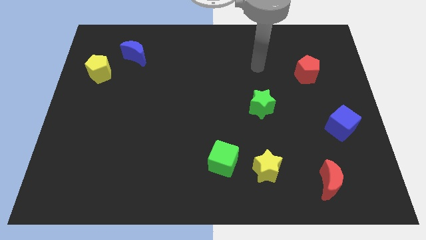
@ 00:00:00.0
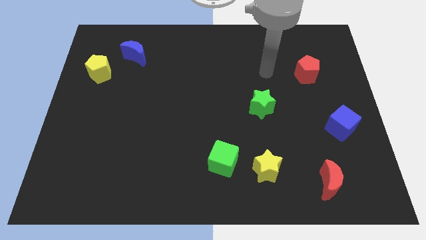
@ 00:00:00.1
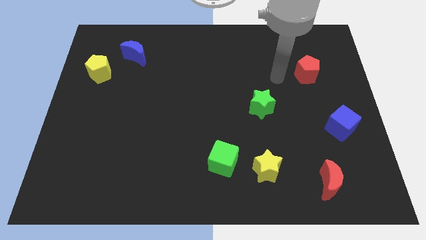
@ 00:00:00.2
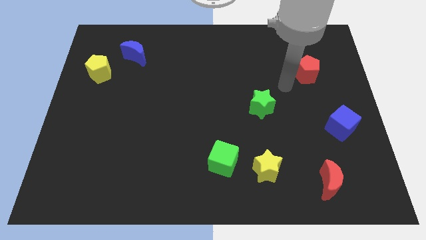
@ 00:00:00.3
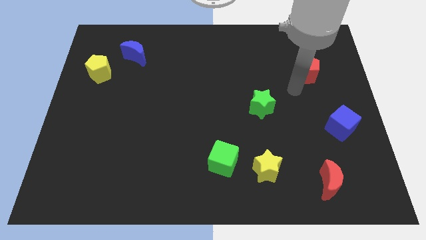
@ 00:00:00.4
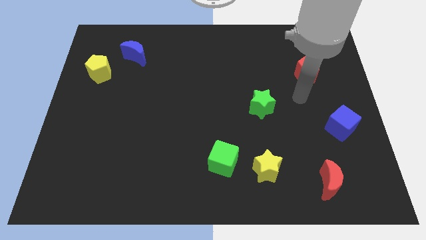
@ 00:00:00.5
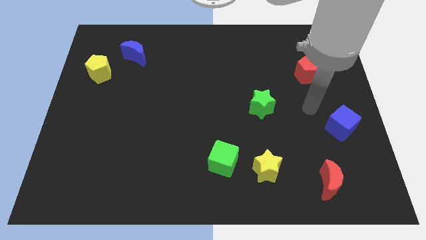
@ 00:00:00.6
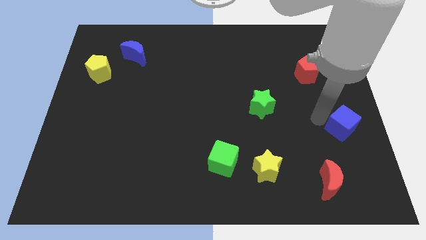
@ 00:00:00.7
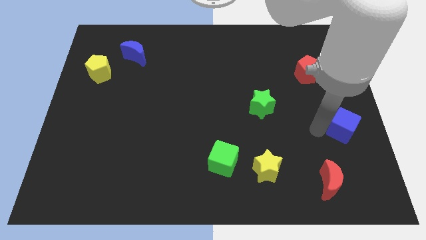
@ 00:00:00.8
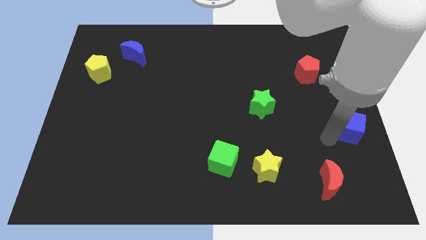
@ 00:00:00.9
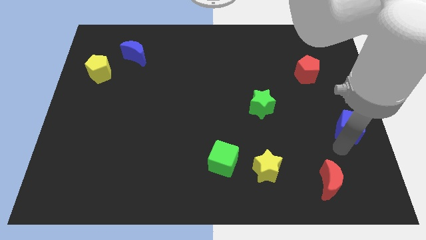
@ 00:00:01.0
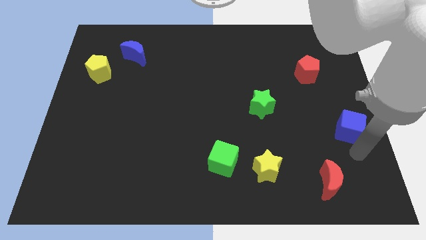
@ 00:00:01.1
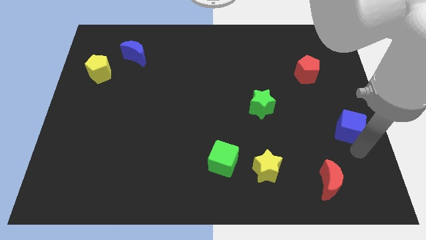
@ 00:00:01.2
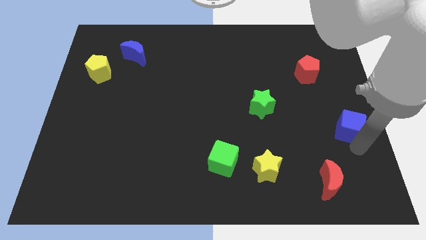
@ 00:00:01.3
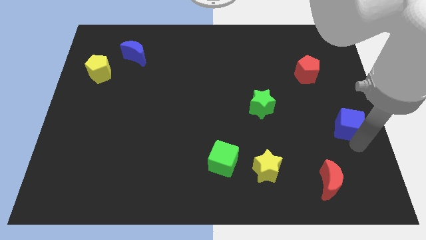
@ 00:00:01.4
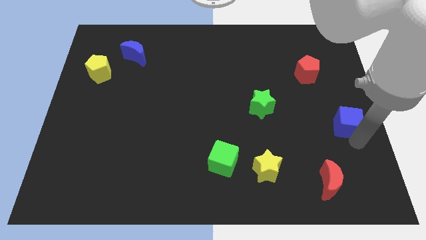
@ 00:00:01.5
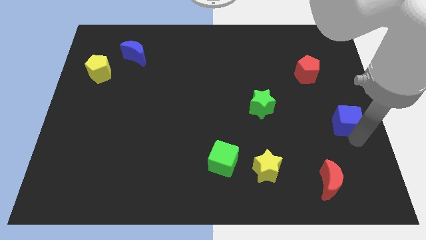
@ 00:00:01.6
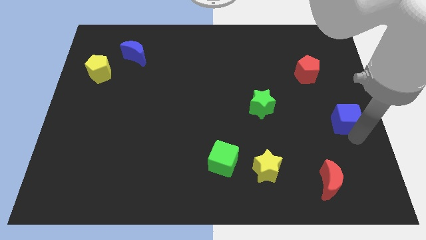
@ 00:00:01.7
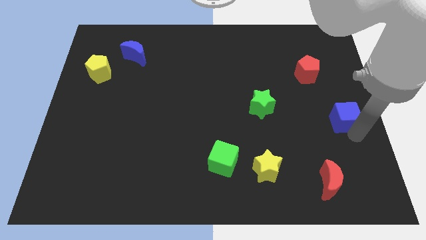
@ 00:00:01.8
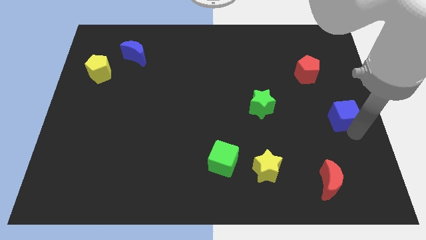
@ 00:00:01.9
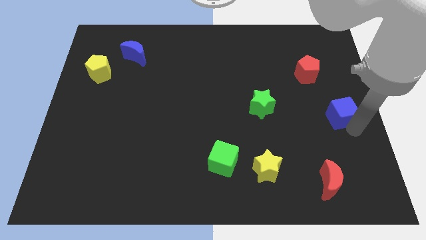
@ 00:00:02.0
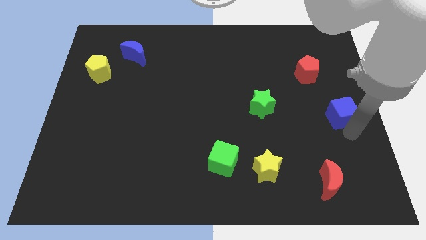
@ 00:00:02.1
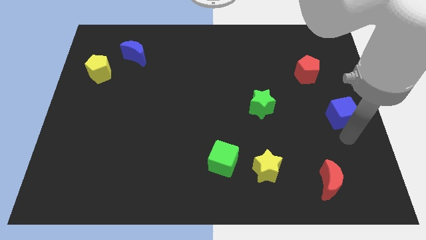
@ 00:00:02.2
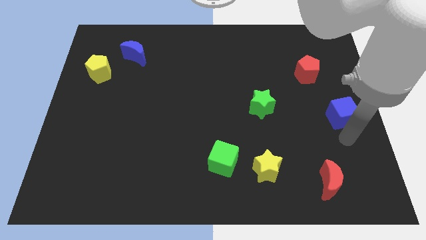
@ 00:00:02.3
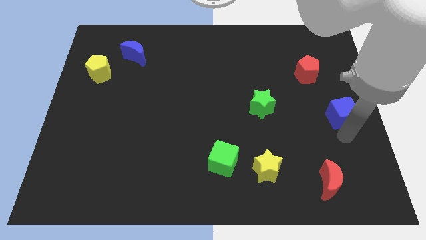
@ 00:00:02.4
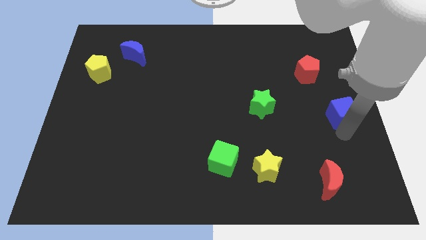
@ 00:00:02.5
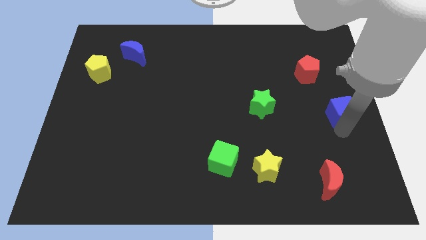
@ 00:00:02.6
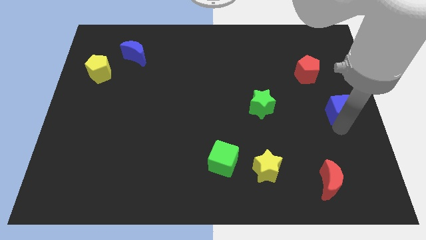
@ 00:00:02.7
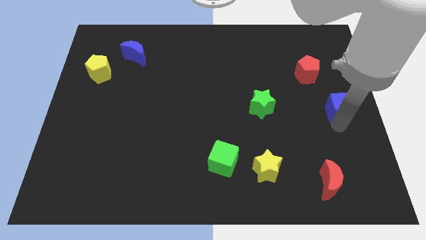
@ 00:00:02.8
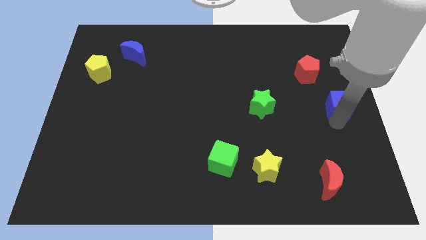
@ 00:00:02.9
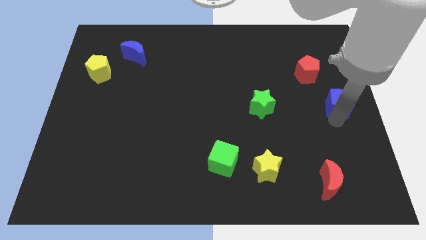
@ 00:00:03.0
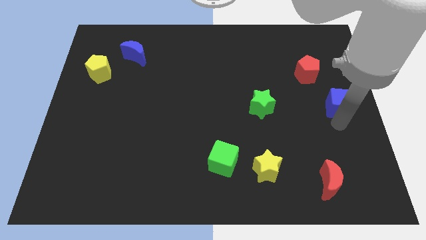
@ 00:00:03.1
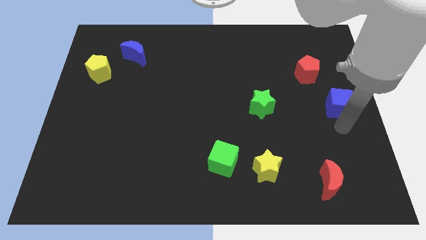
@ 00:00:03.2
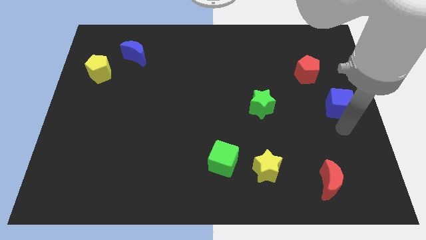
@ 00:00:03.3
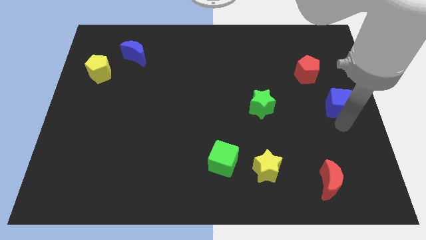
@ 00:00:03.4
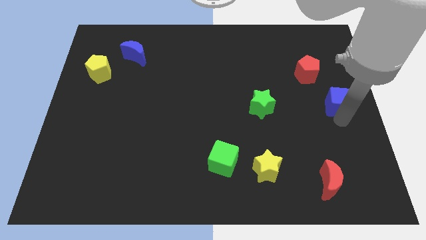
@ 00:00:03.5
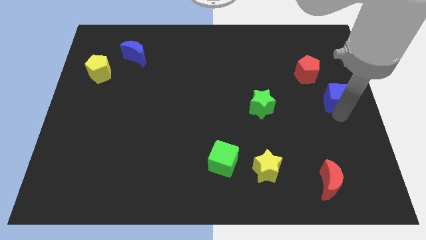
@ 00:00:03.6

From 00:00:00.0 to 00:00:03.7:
push the blue cube upwards slightly

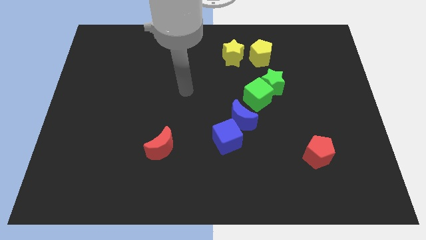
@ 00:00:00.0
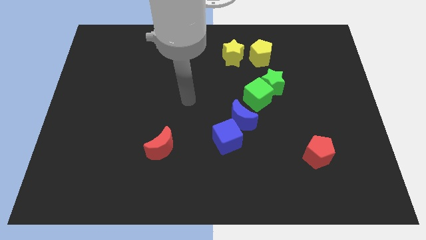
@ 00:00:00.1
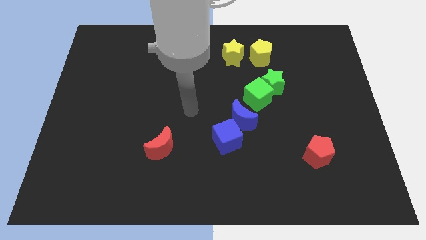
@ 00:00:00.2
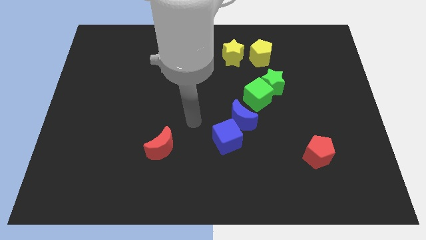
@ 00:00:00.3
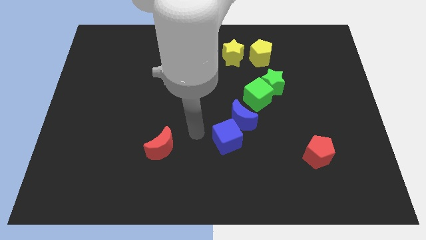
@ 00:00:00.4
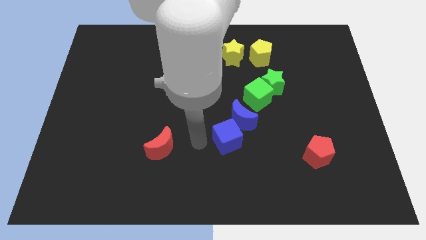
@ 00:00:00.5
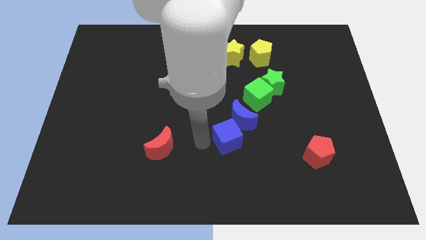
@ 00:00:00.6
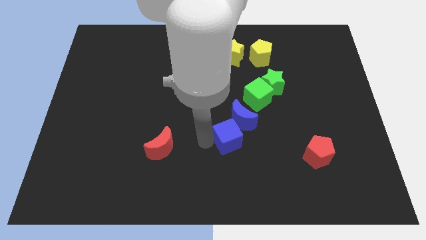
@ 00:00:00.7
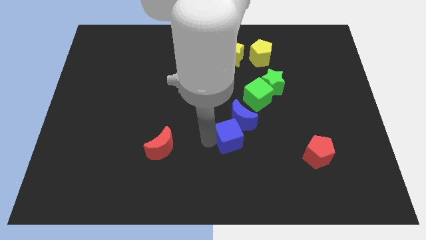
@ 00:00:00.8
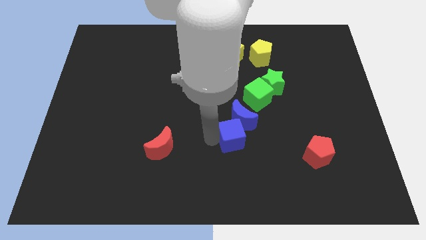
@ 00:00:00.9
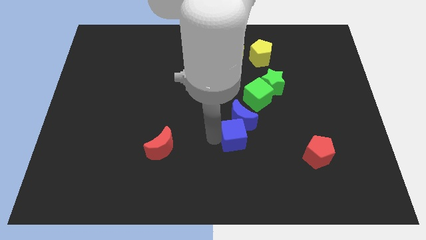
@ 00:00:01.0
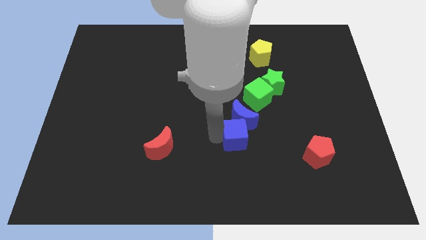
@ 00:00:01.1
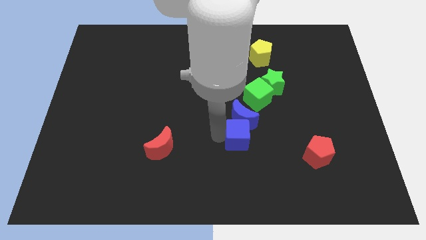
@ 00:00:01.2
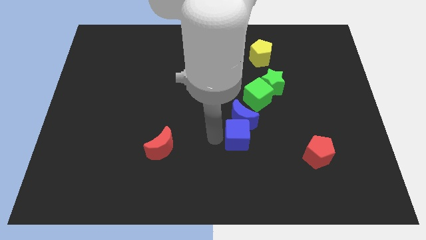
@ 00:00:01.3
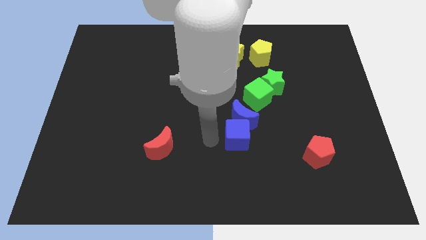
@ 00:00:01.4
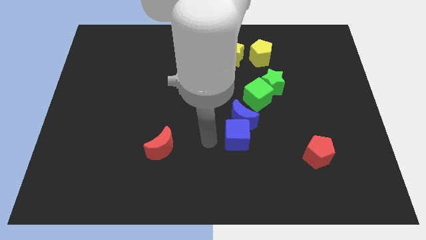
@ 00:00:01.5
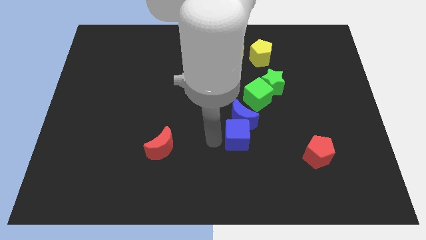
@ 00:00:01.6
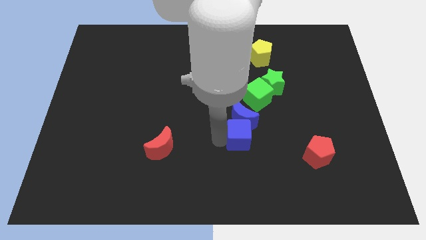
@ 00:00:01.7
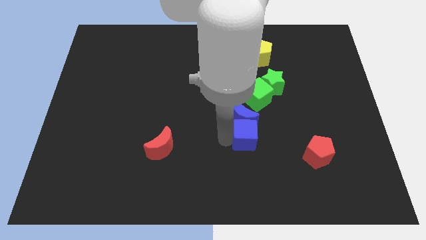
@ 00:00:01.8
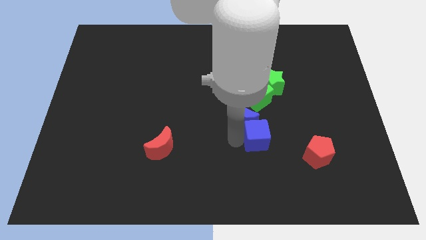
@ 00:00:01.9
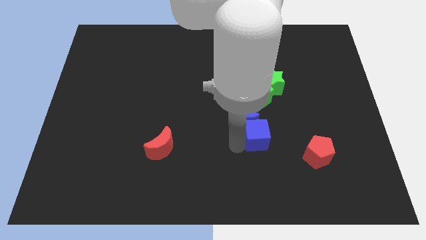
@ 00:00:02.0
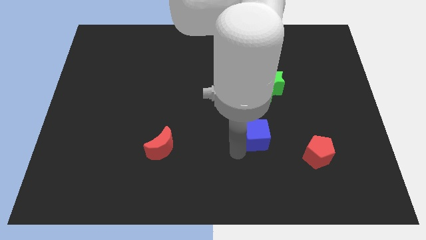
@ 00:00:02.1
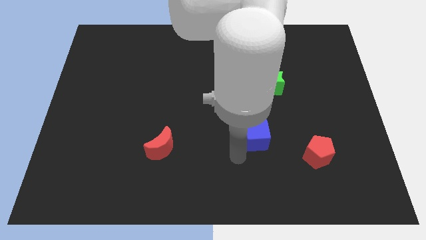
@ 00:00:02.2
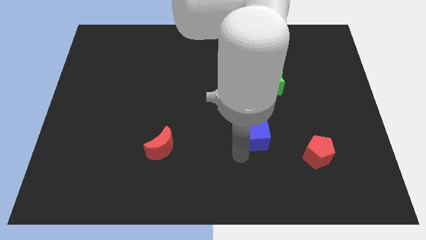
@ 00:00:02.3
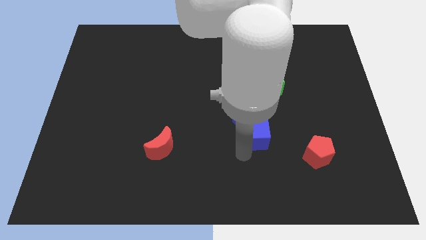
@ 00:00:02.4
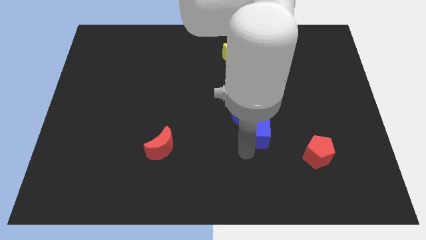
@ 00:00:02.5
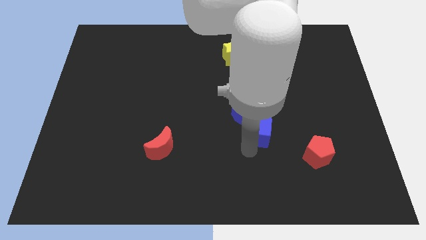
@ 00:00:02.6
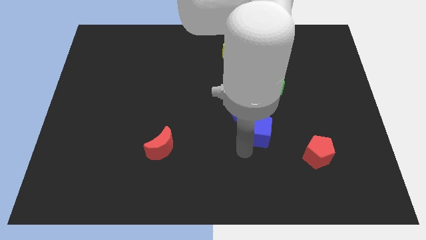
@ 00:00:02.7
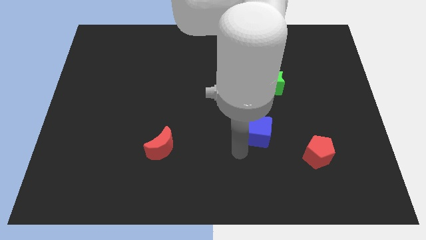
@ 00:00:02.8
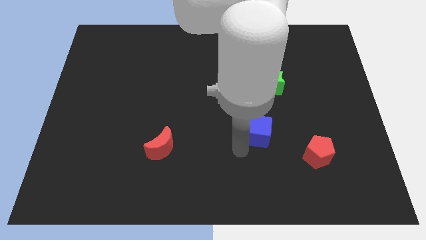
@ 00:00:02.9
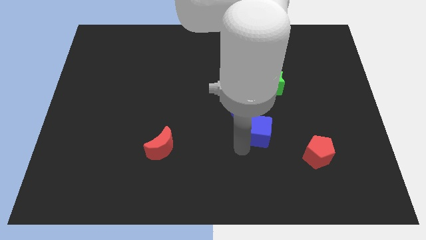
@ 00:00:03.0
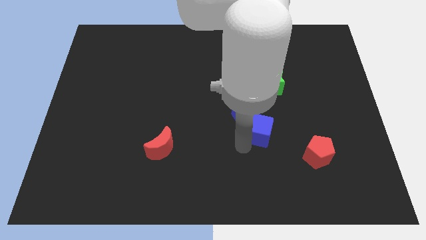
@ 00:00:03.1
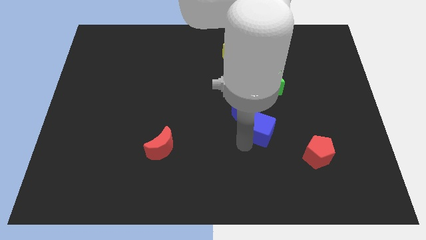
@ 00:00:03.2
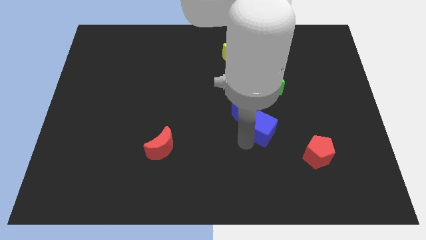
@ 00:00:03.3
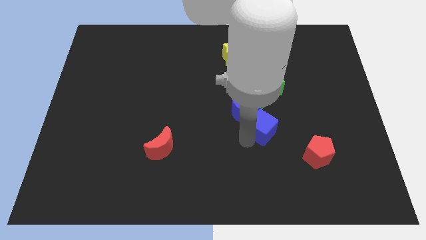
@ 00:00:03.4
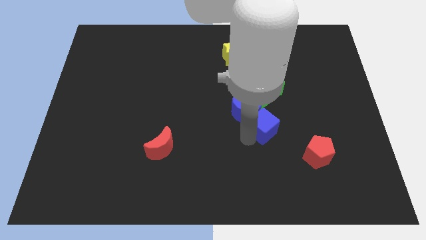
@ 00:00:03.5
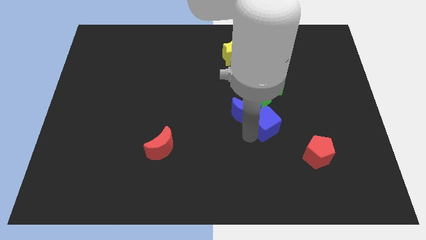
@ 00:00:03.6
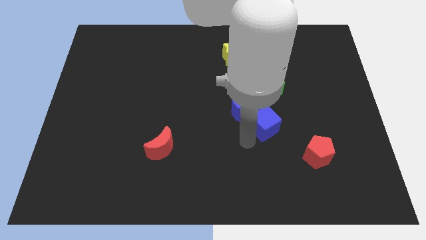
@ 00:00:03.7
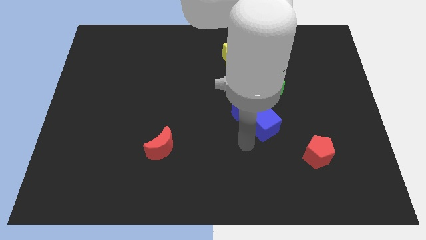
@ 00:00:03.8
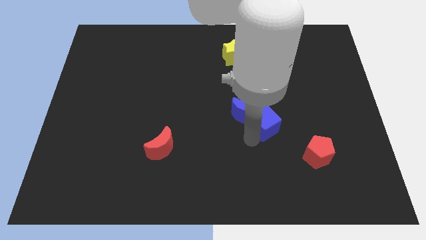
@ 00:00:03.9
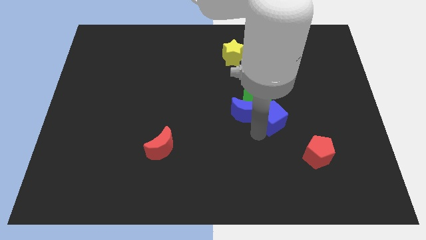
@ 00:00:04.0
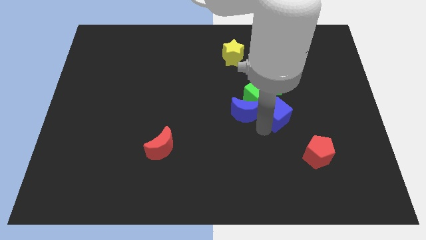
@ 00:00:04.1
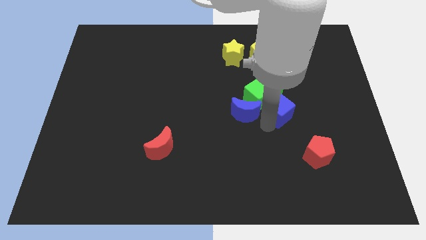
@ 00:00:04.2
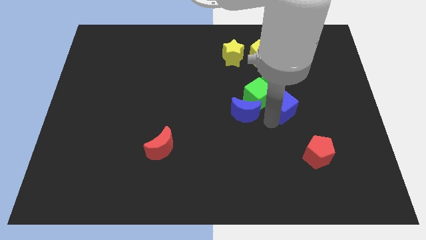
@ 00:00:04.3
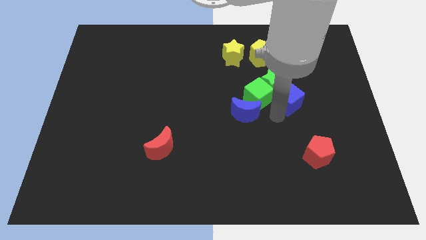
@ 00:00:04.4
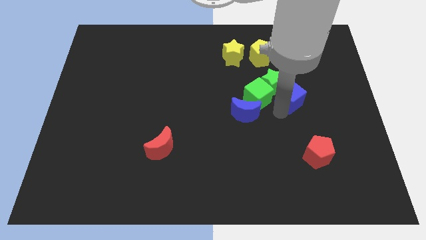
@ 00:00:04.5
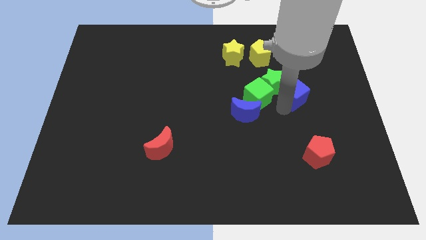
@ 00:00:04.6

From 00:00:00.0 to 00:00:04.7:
move the blue cube upwards and right
